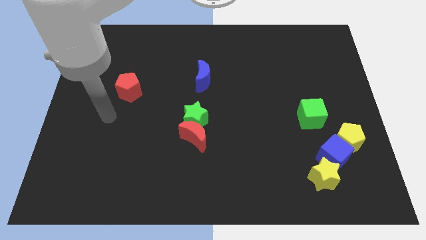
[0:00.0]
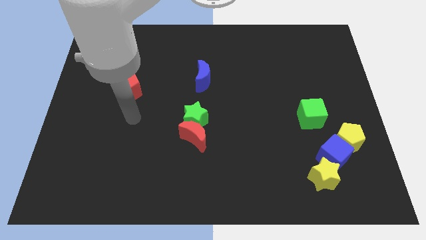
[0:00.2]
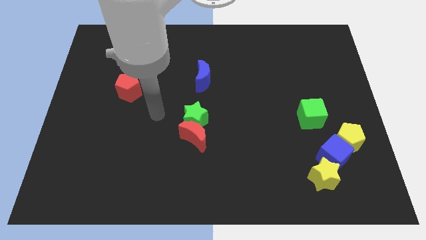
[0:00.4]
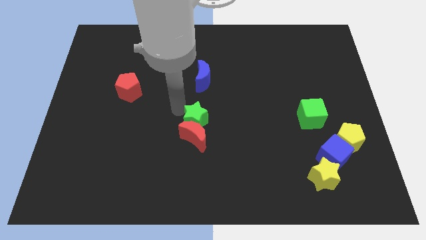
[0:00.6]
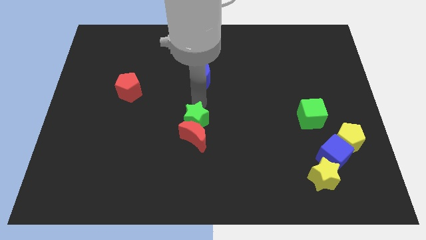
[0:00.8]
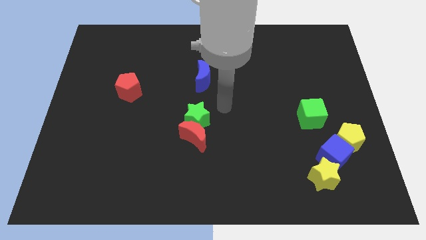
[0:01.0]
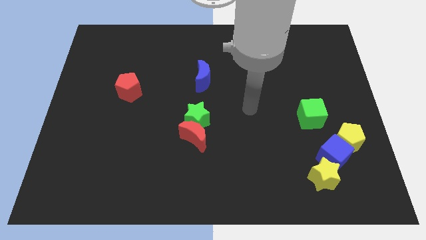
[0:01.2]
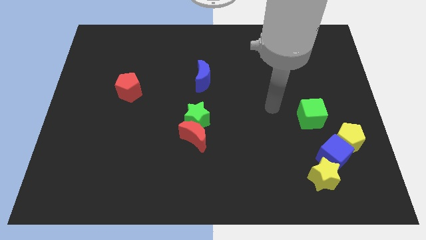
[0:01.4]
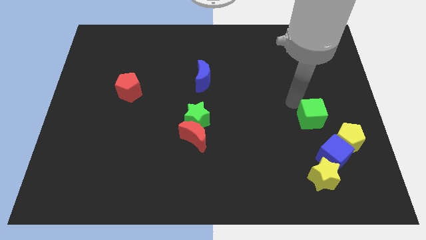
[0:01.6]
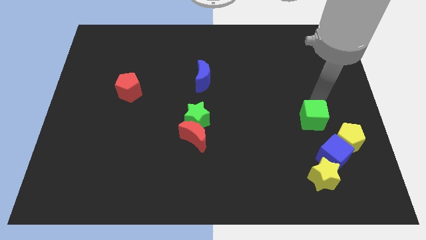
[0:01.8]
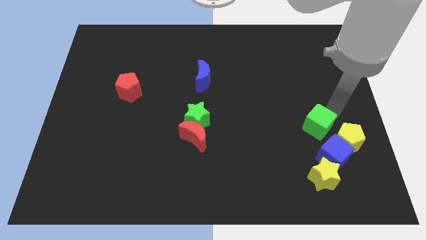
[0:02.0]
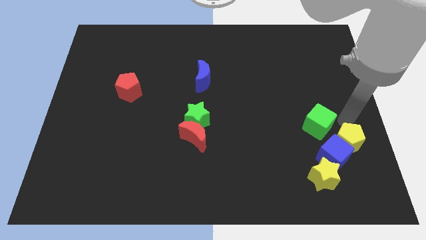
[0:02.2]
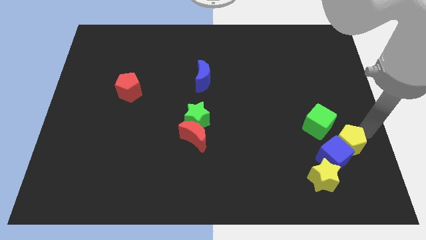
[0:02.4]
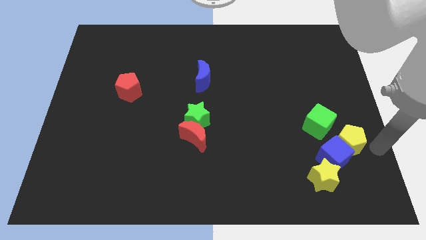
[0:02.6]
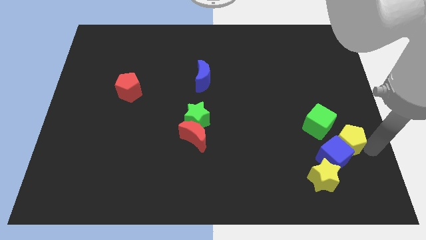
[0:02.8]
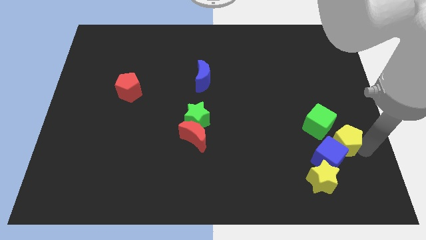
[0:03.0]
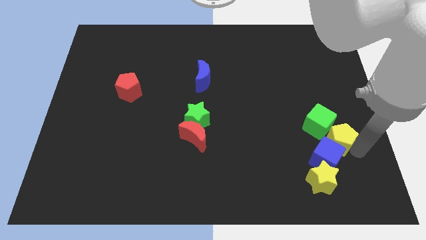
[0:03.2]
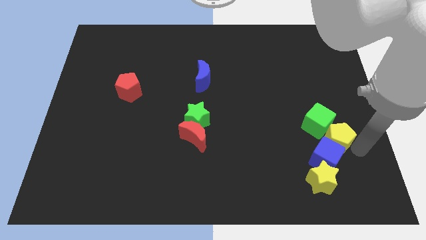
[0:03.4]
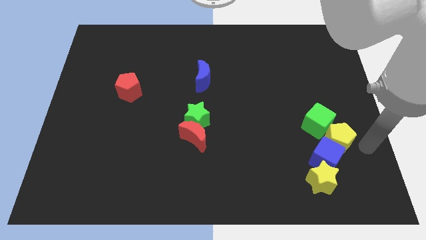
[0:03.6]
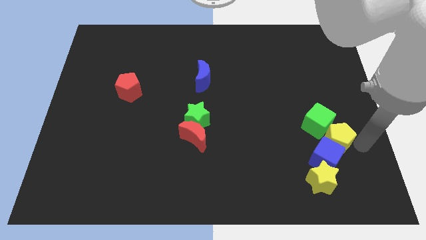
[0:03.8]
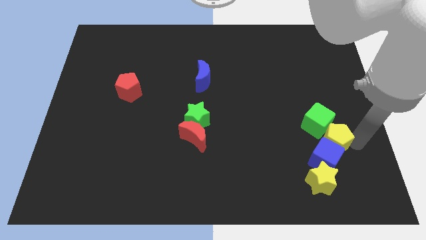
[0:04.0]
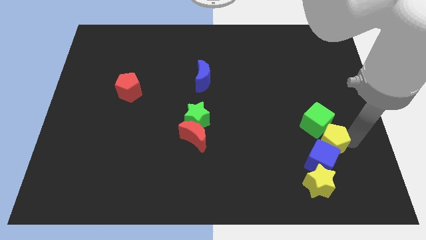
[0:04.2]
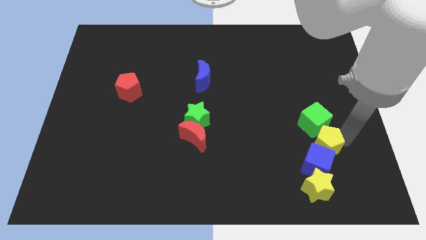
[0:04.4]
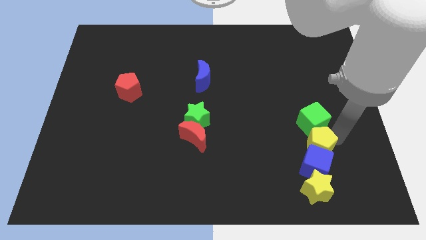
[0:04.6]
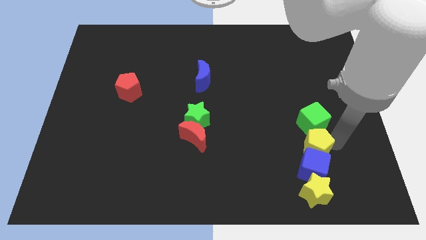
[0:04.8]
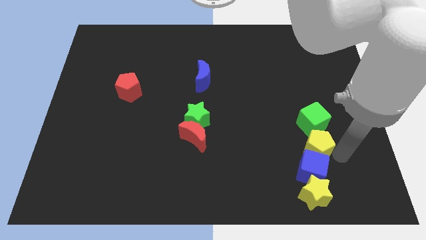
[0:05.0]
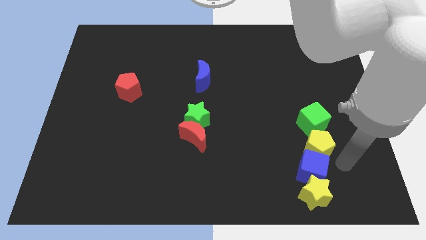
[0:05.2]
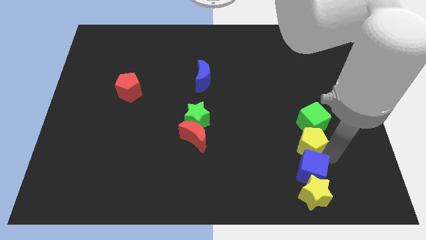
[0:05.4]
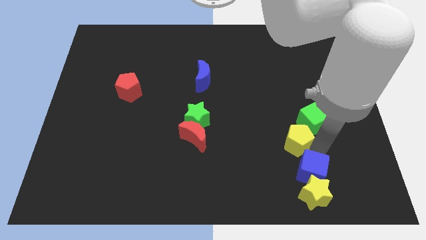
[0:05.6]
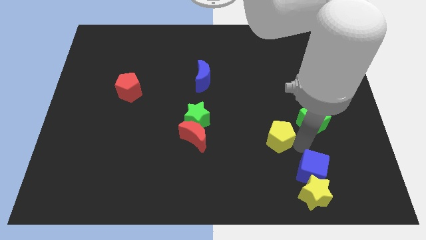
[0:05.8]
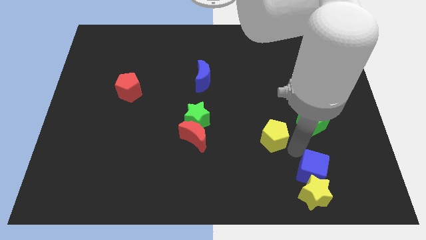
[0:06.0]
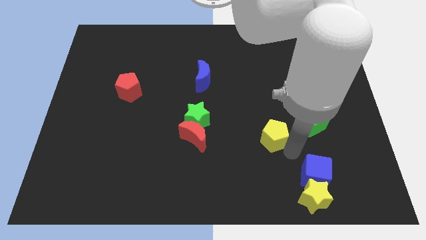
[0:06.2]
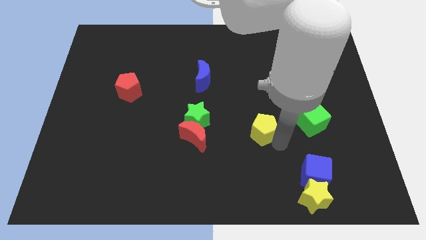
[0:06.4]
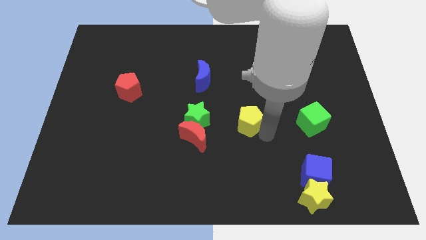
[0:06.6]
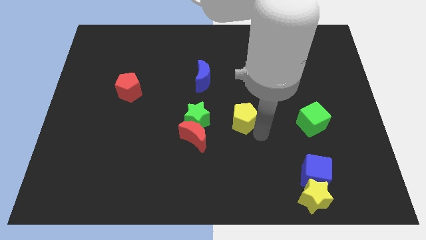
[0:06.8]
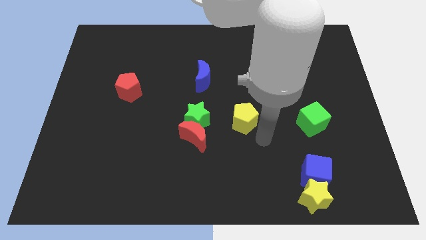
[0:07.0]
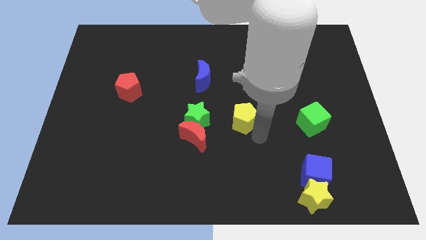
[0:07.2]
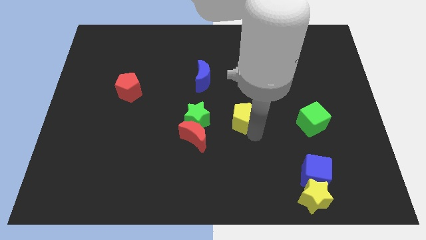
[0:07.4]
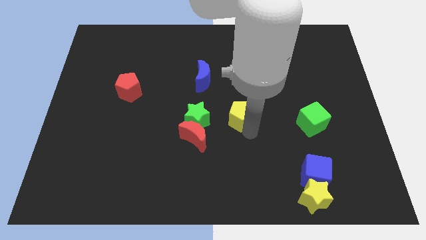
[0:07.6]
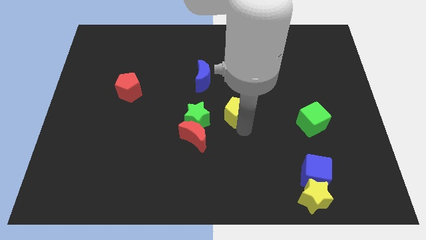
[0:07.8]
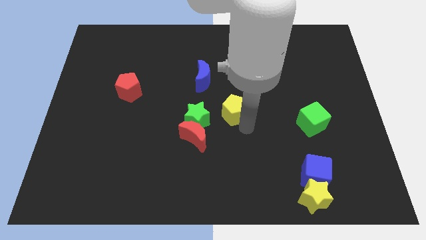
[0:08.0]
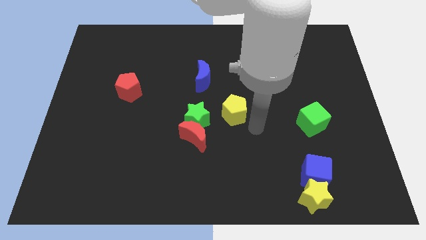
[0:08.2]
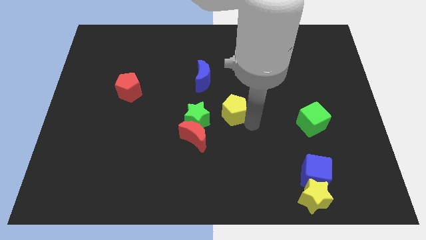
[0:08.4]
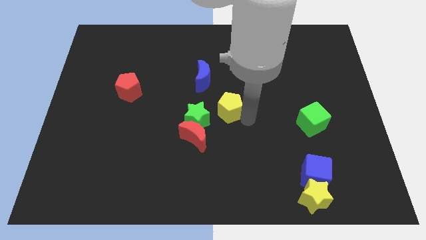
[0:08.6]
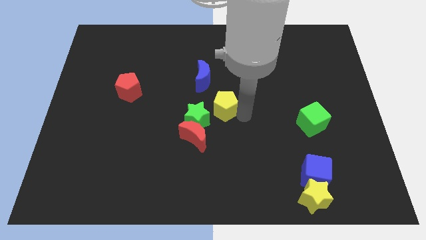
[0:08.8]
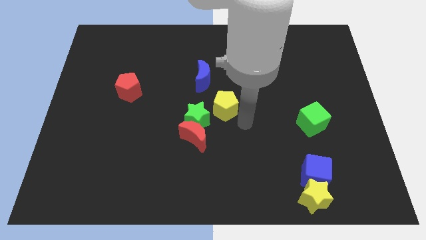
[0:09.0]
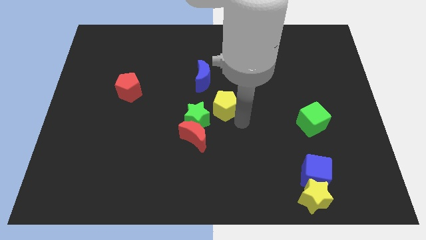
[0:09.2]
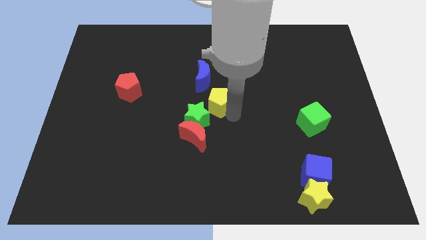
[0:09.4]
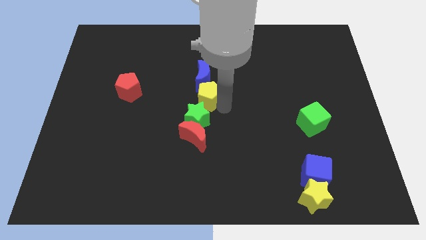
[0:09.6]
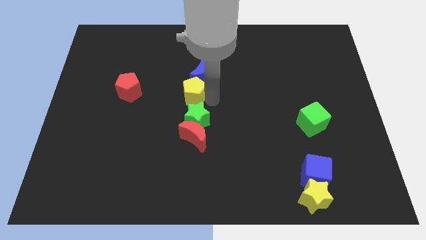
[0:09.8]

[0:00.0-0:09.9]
put the yellow pentagon to the right side of the red pentagon
